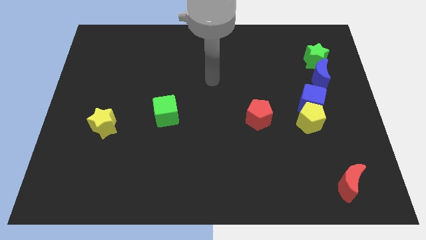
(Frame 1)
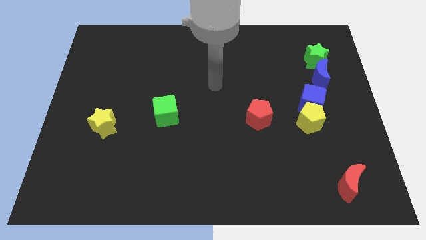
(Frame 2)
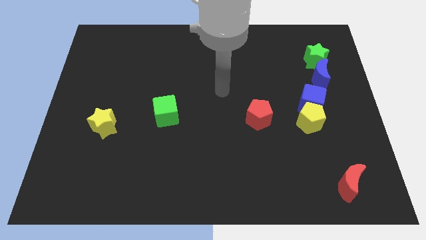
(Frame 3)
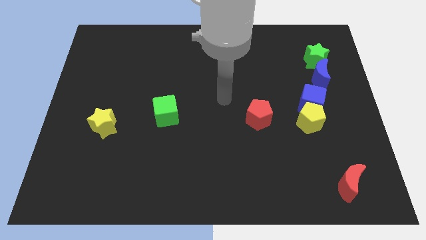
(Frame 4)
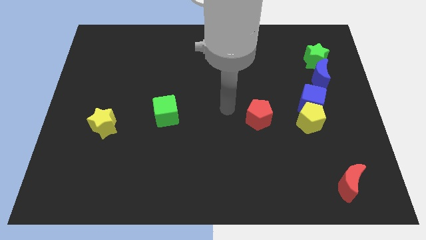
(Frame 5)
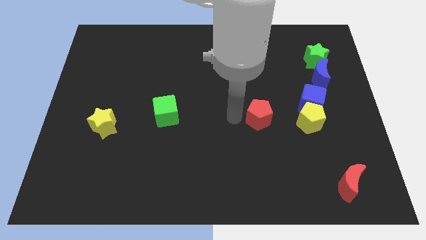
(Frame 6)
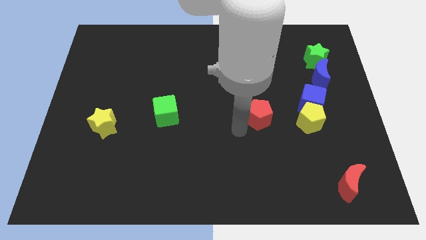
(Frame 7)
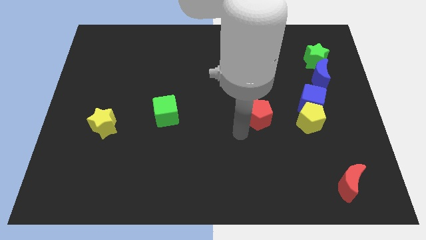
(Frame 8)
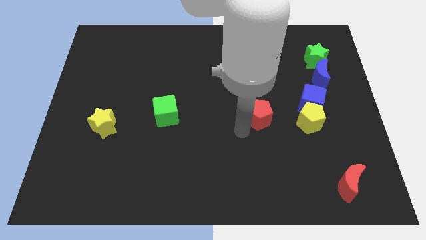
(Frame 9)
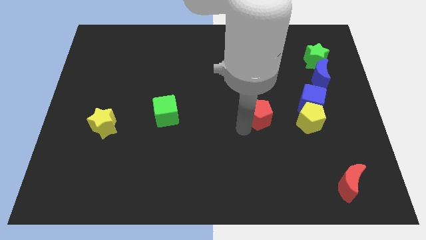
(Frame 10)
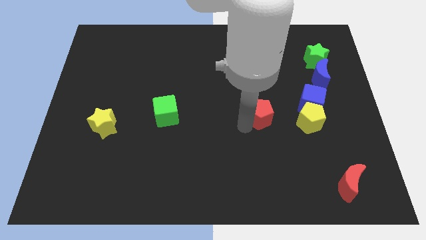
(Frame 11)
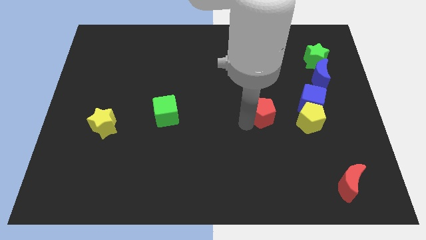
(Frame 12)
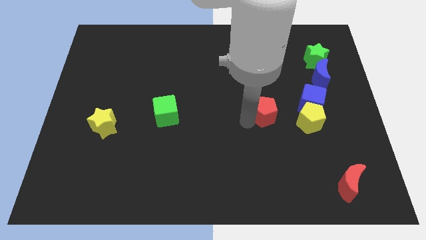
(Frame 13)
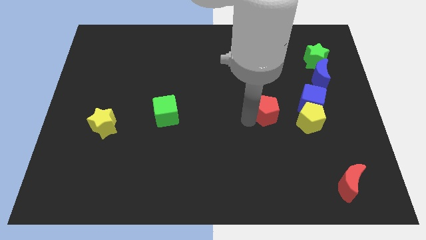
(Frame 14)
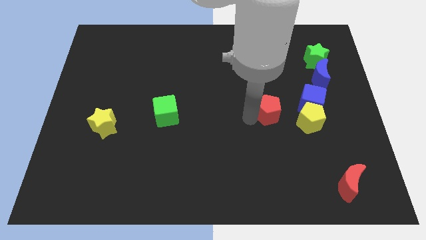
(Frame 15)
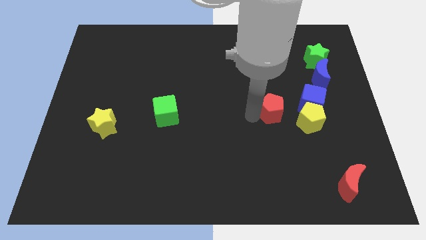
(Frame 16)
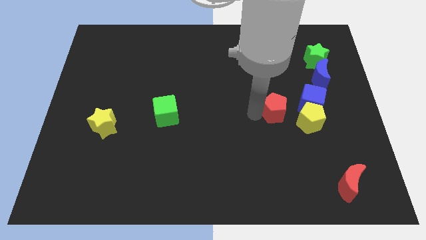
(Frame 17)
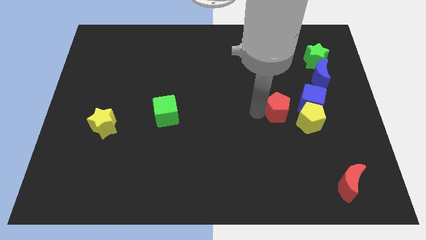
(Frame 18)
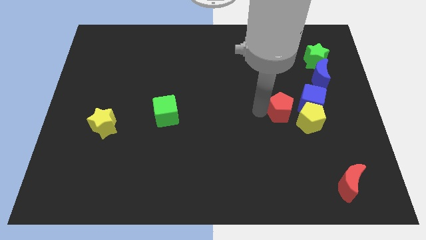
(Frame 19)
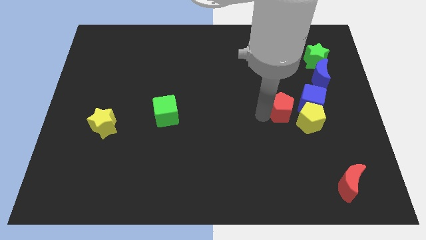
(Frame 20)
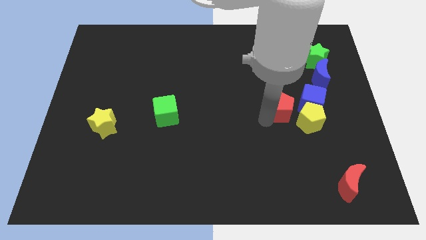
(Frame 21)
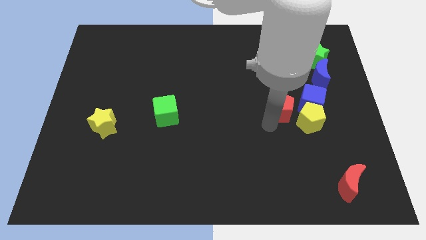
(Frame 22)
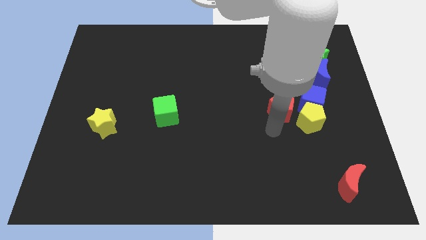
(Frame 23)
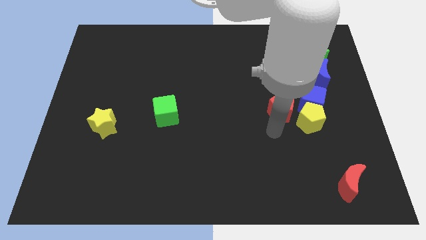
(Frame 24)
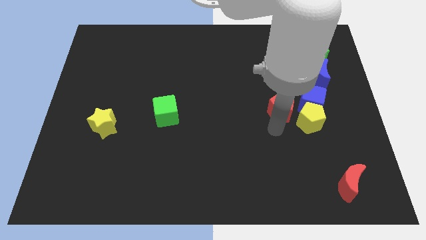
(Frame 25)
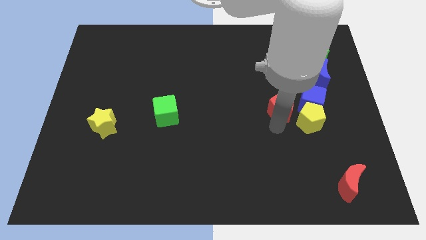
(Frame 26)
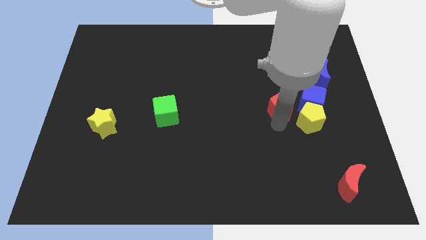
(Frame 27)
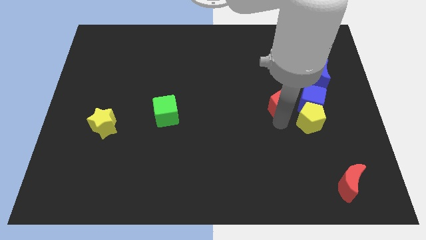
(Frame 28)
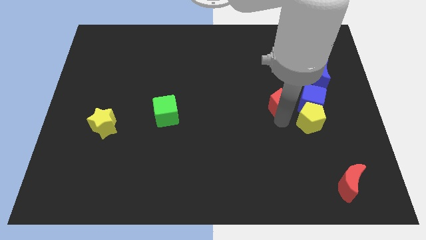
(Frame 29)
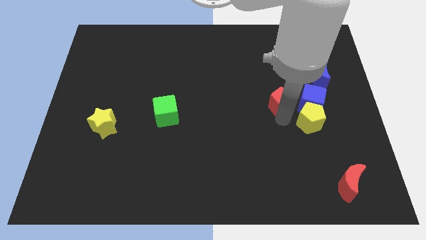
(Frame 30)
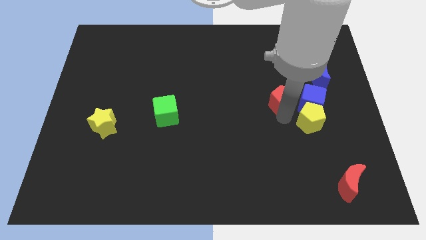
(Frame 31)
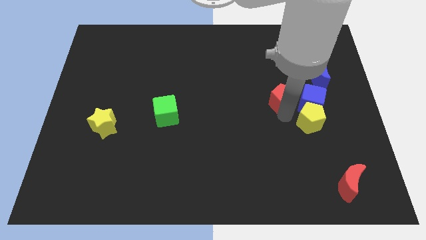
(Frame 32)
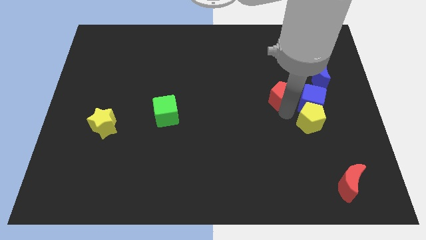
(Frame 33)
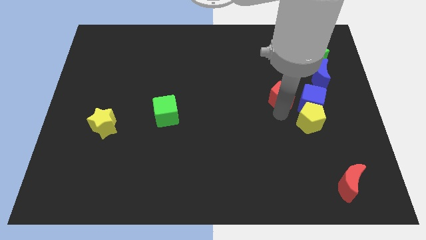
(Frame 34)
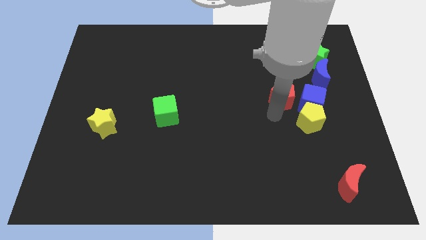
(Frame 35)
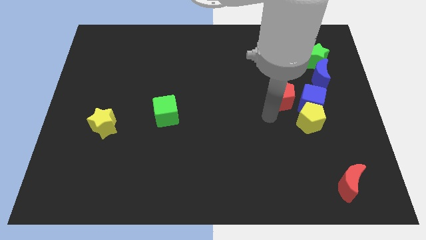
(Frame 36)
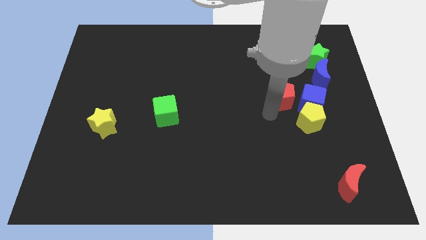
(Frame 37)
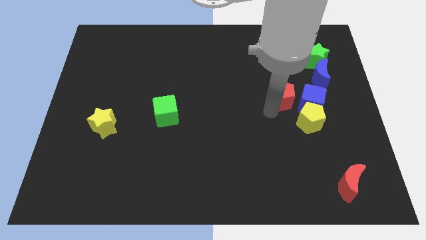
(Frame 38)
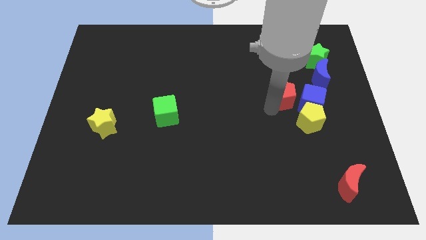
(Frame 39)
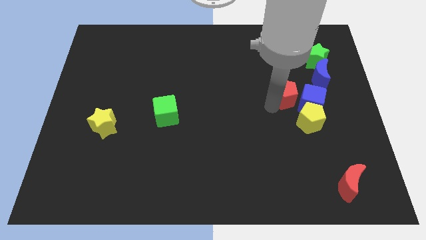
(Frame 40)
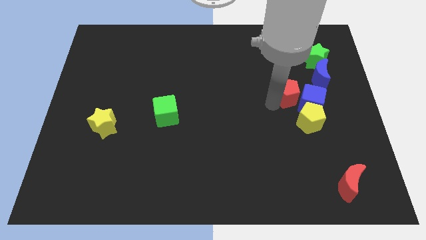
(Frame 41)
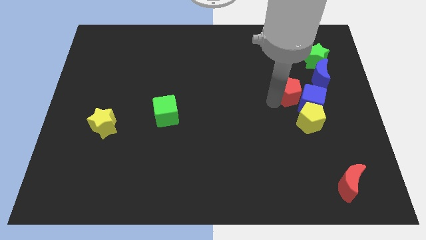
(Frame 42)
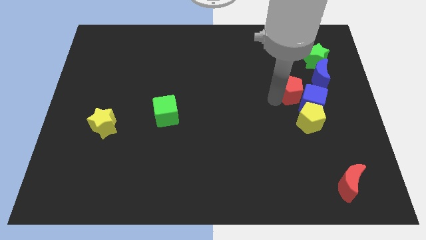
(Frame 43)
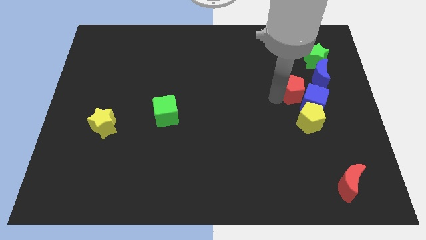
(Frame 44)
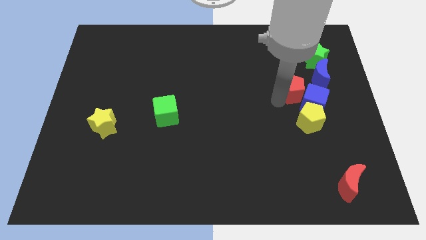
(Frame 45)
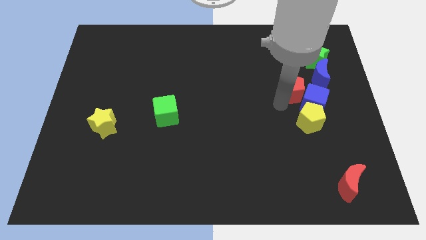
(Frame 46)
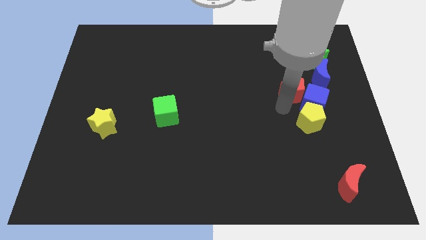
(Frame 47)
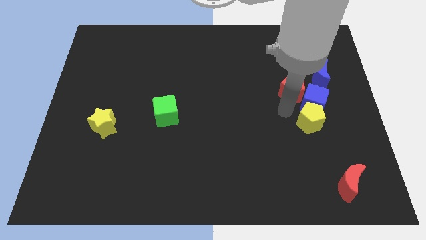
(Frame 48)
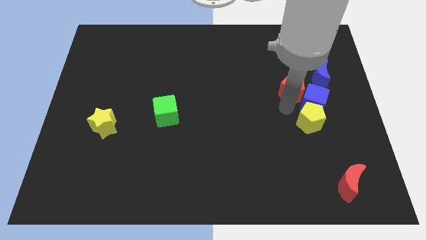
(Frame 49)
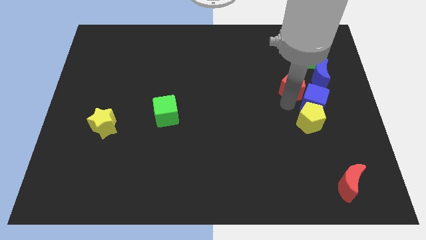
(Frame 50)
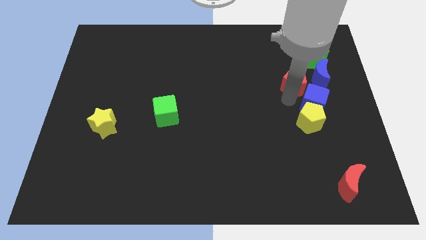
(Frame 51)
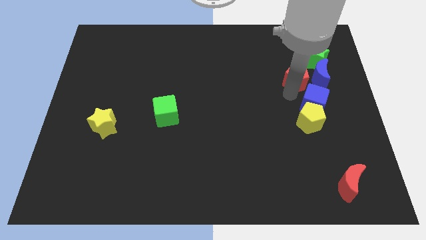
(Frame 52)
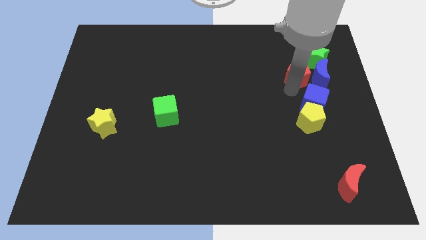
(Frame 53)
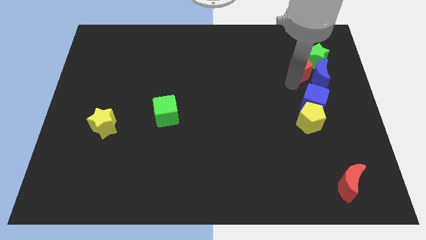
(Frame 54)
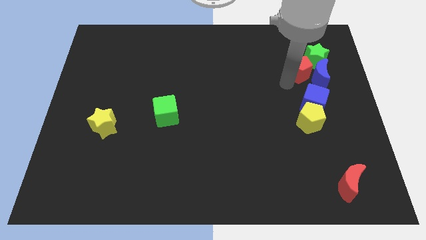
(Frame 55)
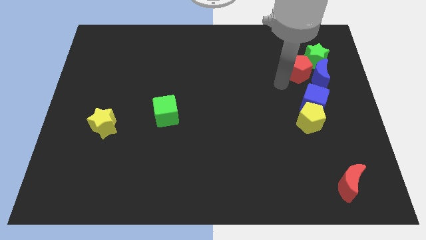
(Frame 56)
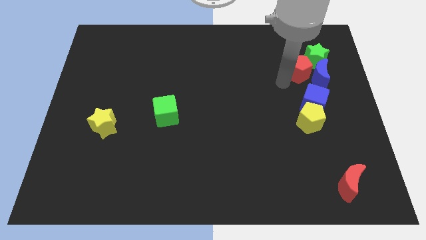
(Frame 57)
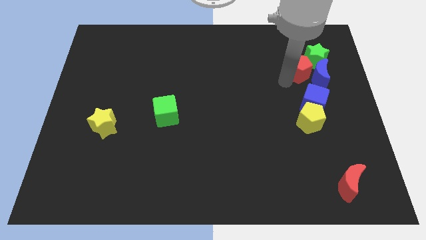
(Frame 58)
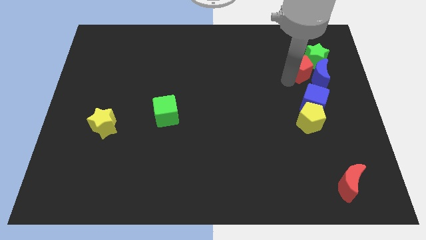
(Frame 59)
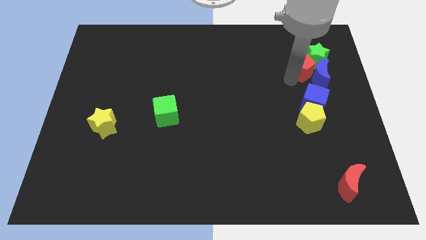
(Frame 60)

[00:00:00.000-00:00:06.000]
push the red pentagon towards the green star

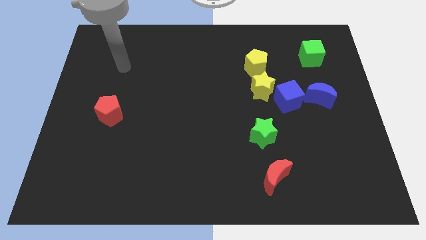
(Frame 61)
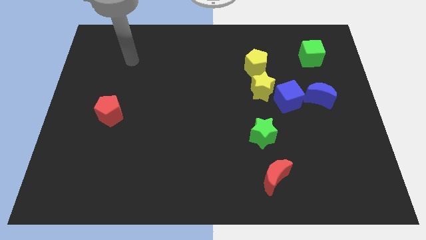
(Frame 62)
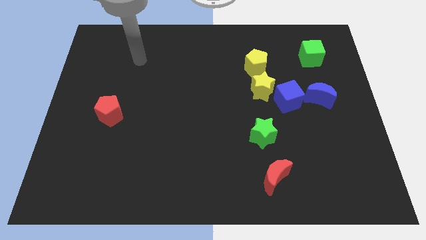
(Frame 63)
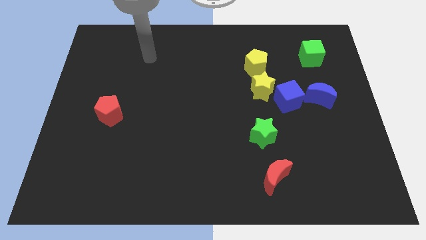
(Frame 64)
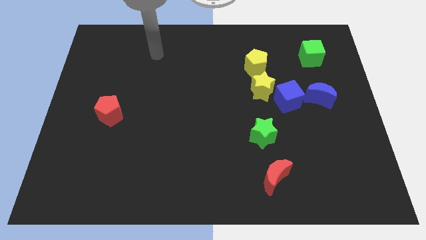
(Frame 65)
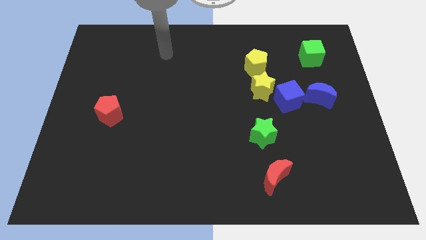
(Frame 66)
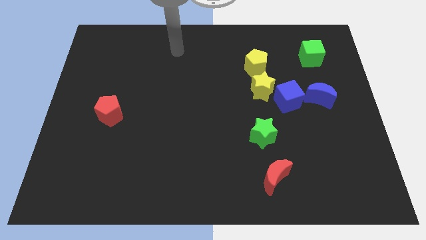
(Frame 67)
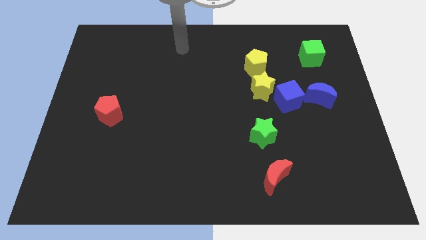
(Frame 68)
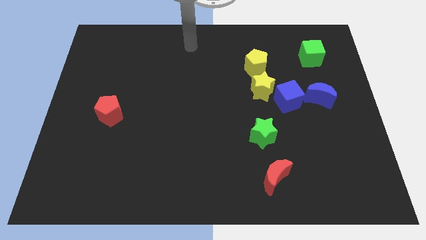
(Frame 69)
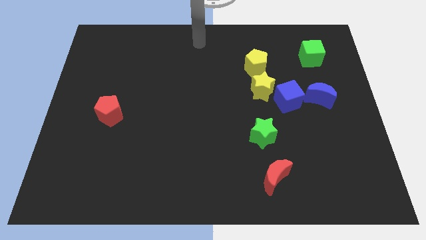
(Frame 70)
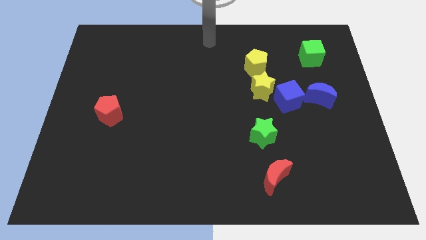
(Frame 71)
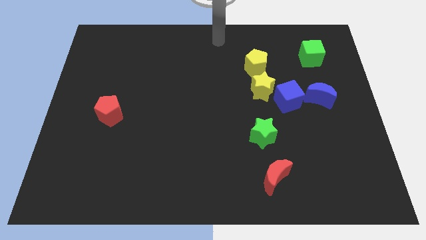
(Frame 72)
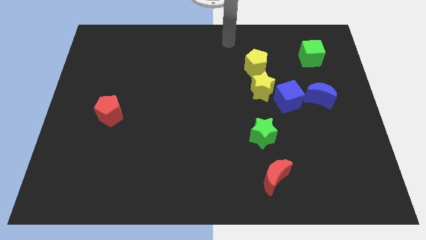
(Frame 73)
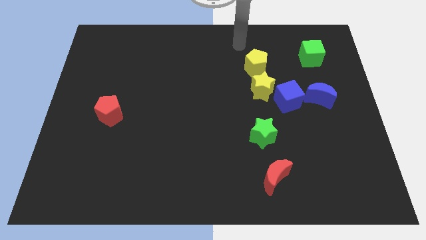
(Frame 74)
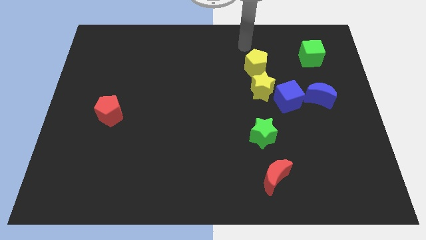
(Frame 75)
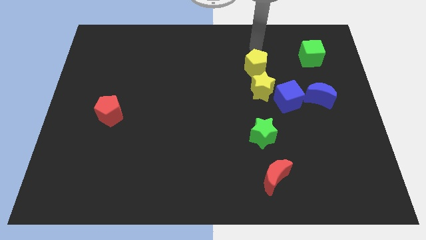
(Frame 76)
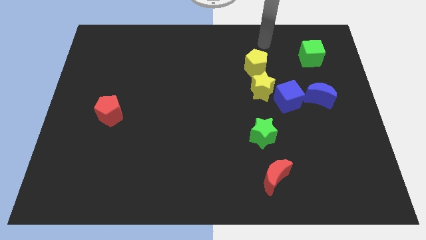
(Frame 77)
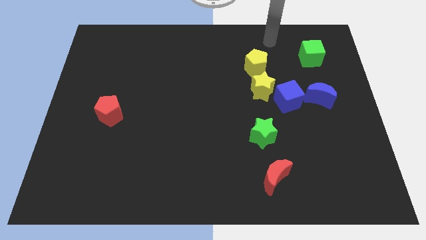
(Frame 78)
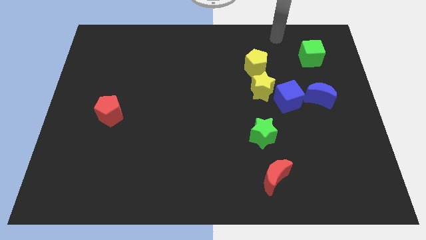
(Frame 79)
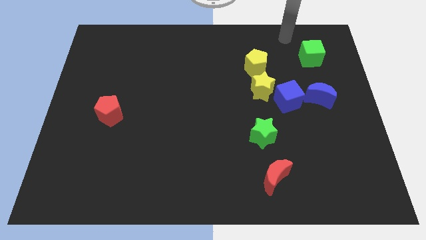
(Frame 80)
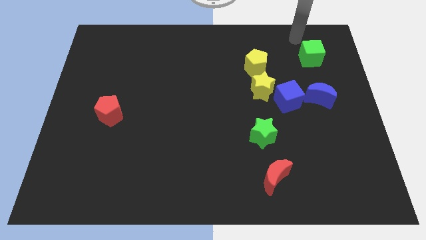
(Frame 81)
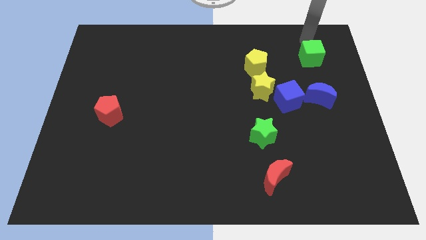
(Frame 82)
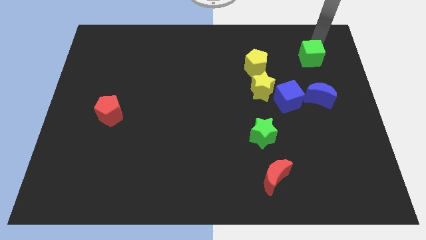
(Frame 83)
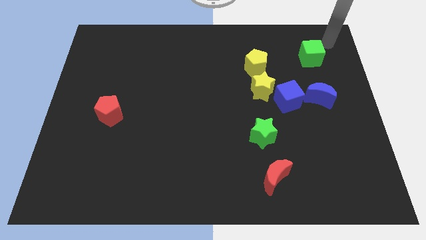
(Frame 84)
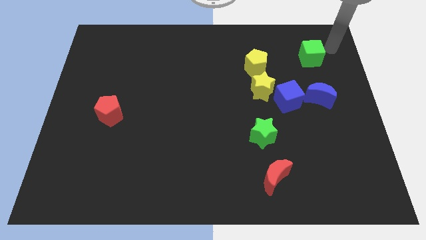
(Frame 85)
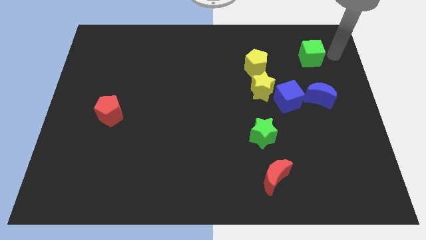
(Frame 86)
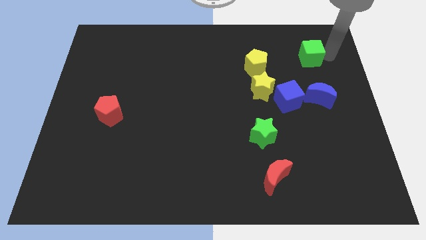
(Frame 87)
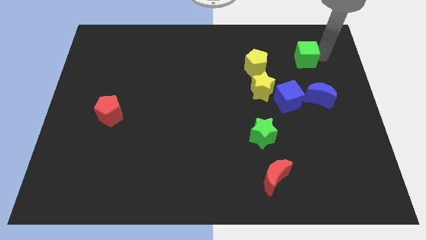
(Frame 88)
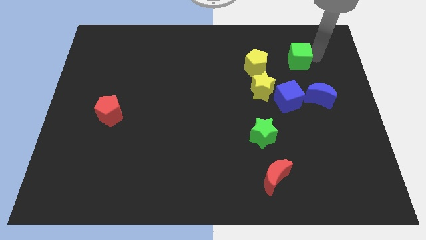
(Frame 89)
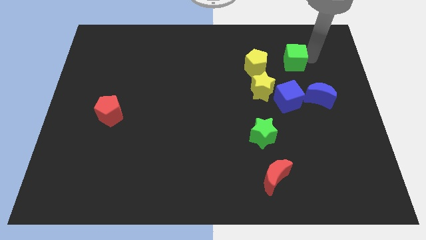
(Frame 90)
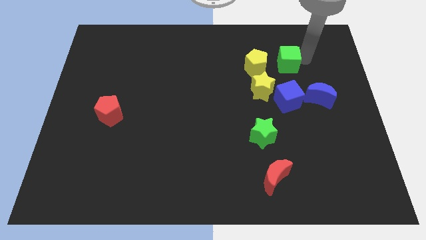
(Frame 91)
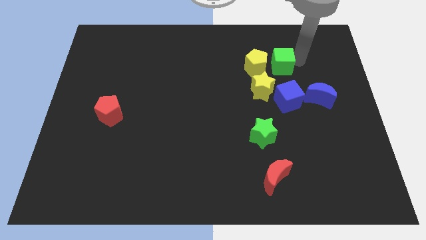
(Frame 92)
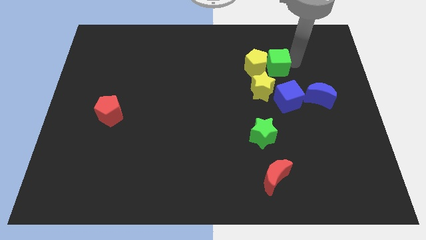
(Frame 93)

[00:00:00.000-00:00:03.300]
put the green cube close to the yellow pentagon
